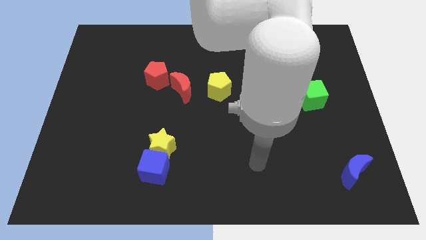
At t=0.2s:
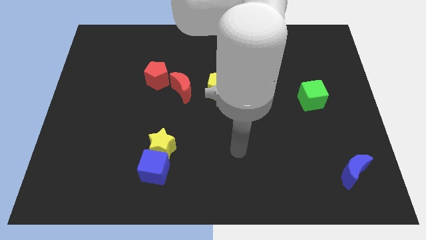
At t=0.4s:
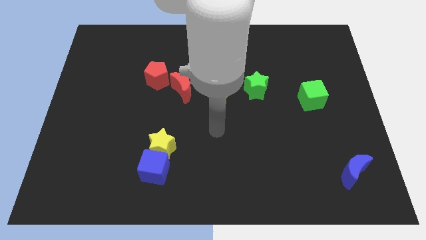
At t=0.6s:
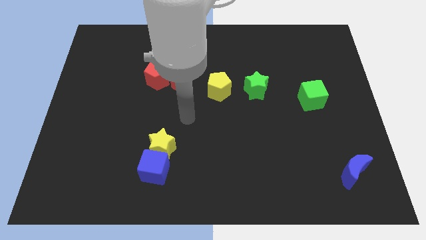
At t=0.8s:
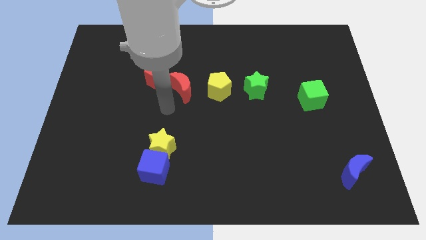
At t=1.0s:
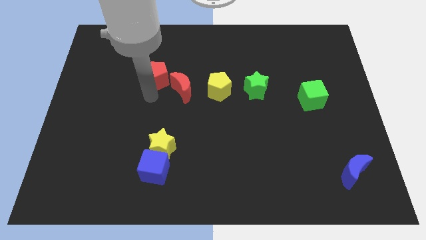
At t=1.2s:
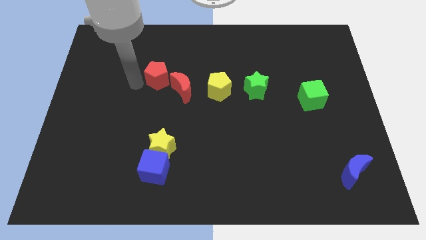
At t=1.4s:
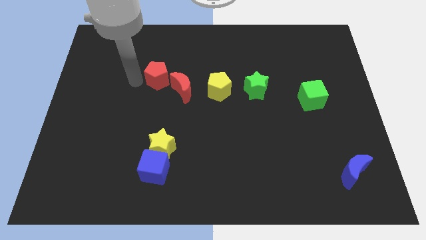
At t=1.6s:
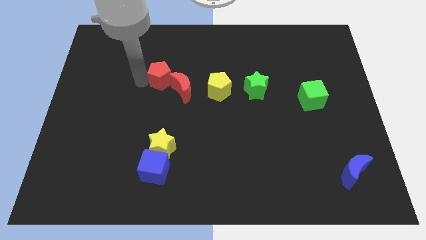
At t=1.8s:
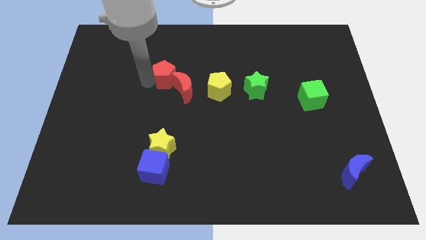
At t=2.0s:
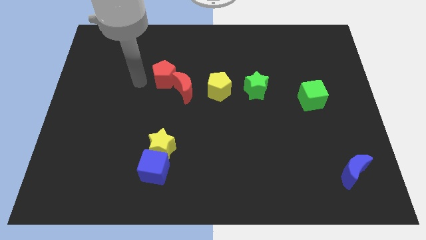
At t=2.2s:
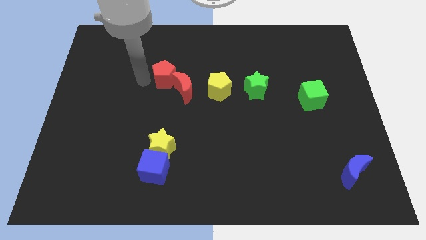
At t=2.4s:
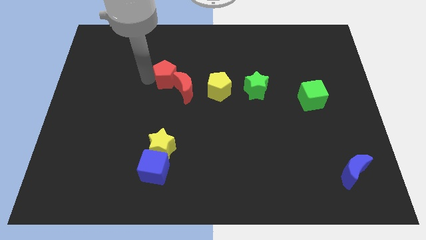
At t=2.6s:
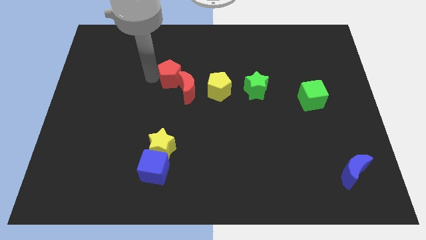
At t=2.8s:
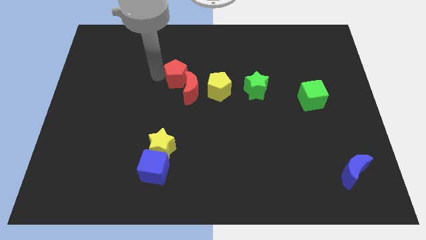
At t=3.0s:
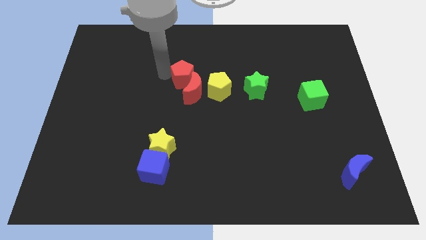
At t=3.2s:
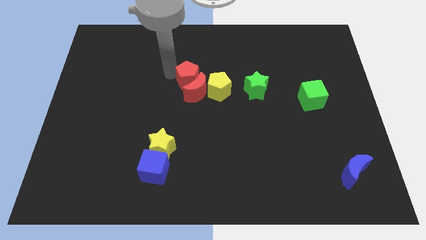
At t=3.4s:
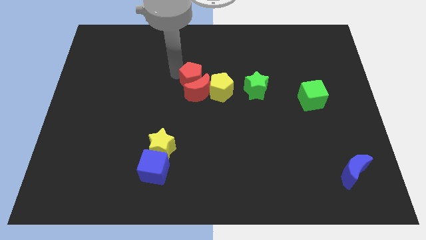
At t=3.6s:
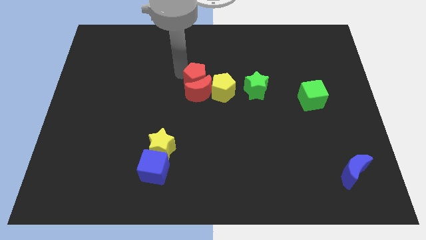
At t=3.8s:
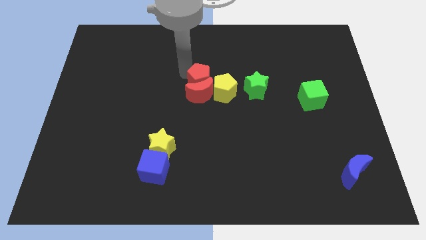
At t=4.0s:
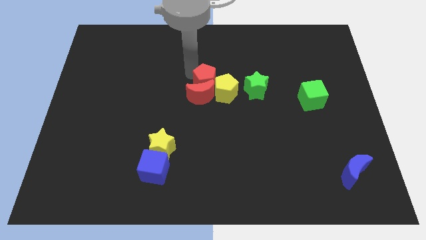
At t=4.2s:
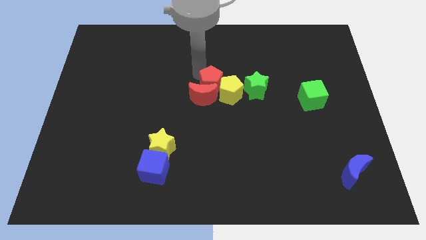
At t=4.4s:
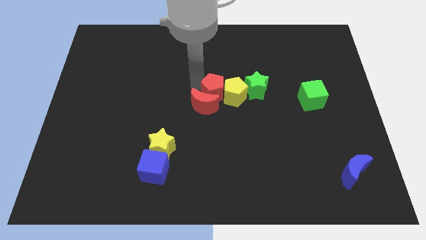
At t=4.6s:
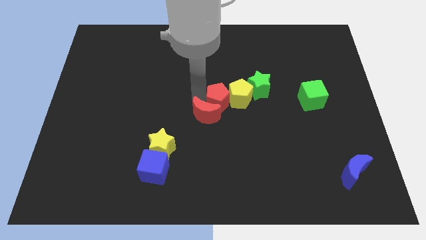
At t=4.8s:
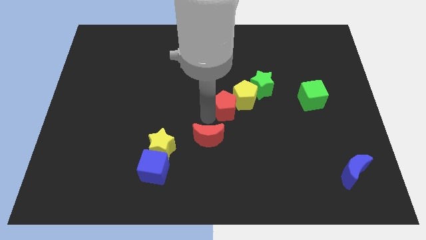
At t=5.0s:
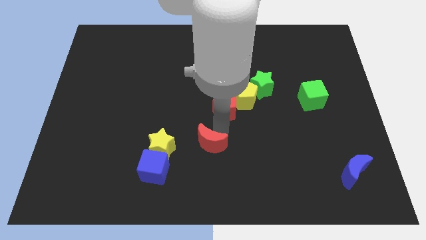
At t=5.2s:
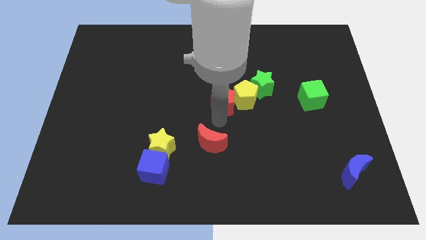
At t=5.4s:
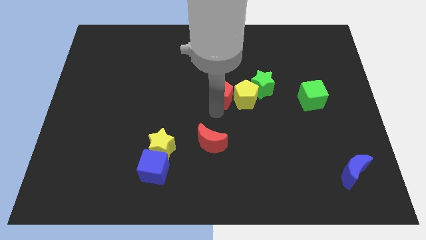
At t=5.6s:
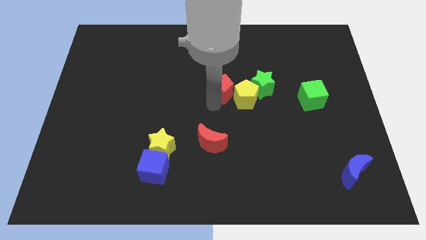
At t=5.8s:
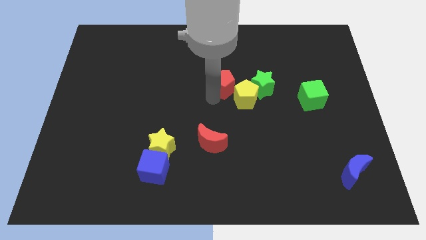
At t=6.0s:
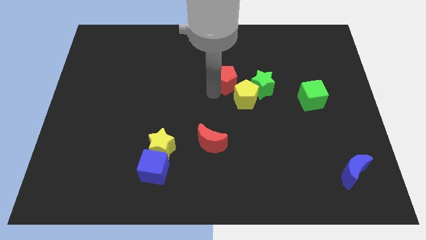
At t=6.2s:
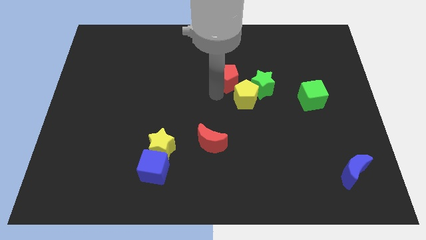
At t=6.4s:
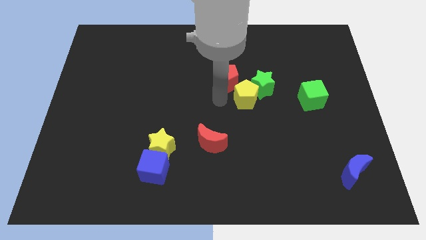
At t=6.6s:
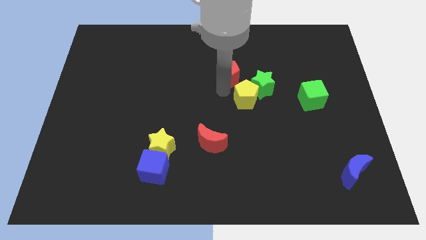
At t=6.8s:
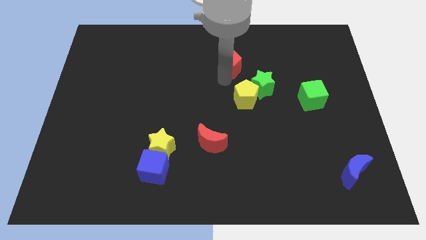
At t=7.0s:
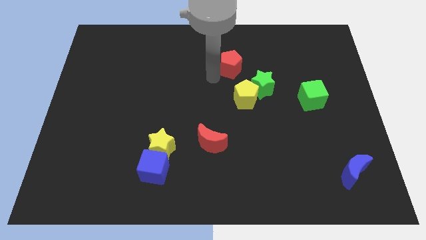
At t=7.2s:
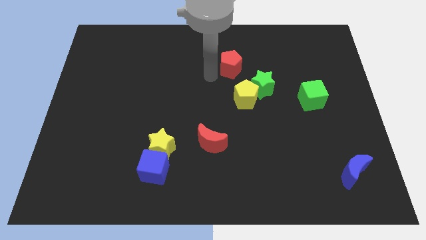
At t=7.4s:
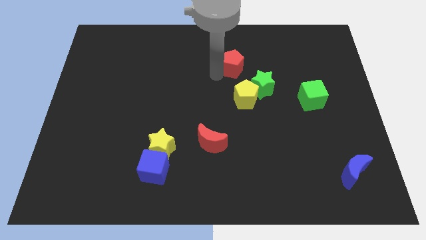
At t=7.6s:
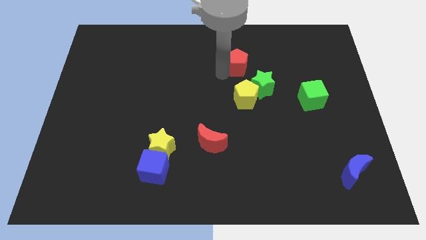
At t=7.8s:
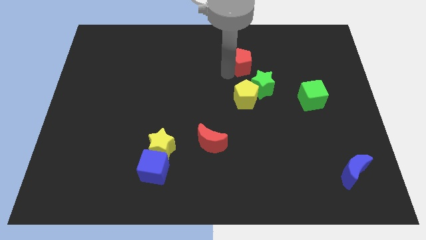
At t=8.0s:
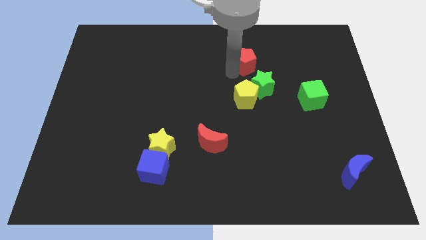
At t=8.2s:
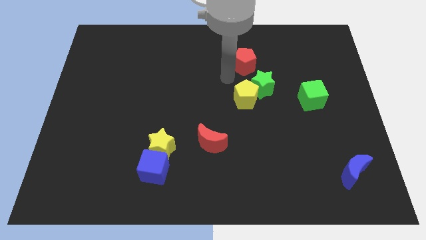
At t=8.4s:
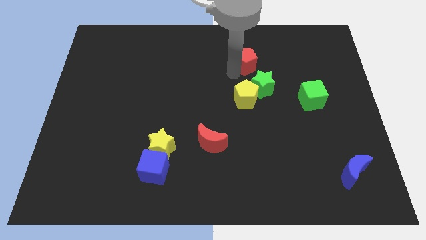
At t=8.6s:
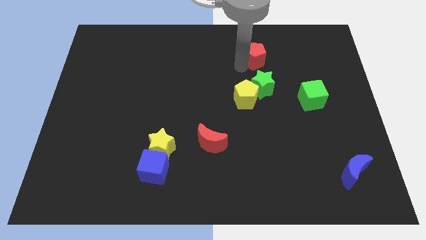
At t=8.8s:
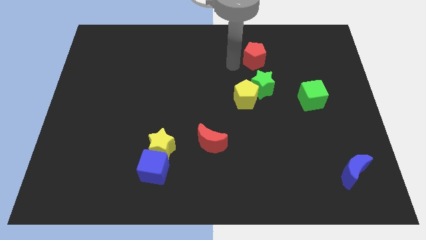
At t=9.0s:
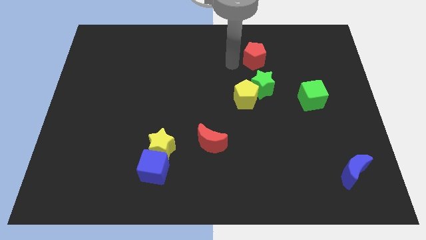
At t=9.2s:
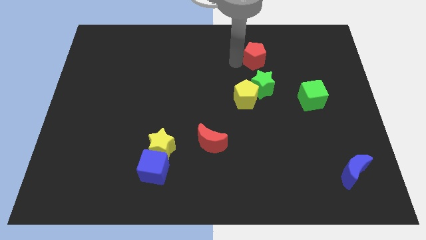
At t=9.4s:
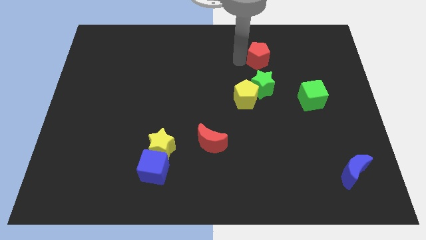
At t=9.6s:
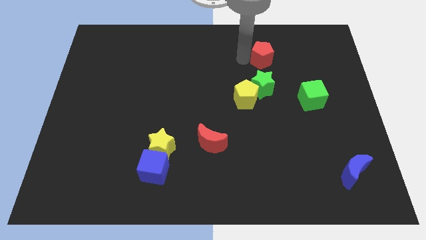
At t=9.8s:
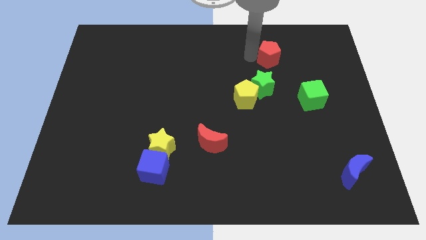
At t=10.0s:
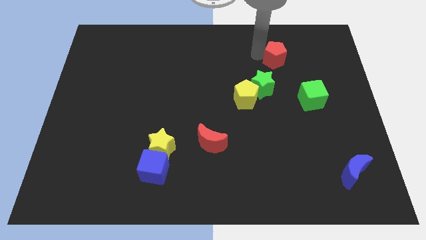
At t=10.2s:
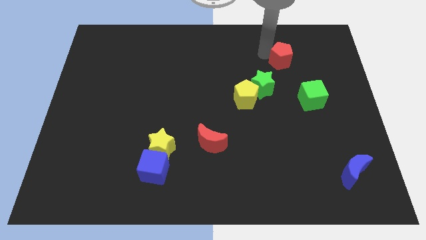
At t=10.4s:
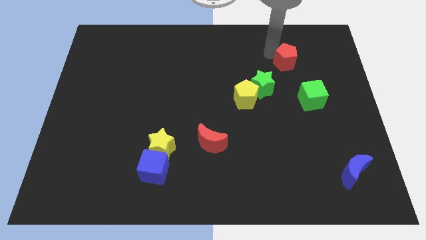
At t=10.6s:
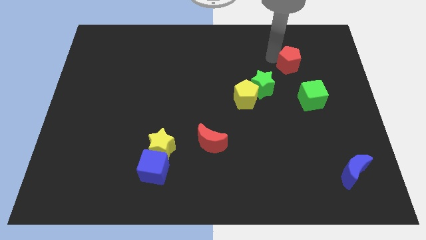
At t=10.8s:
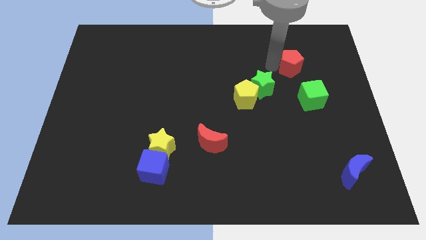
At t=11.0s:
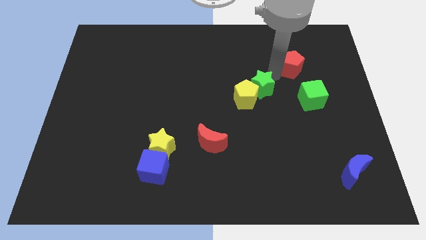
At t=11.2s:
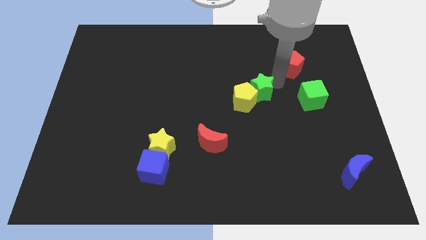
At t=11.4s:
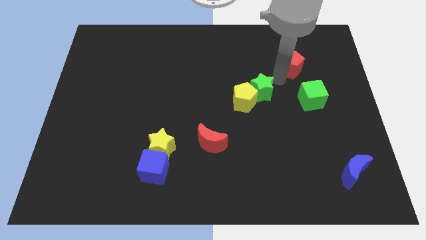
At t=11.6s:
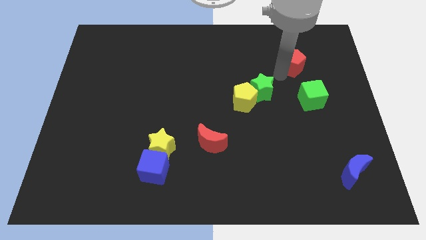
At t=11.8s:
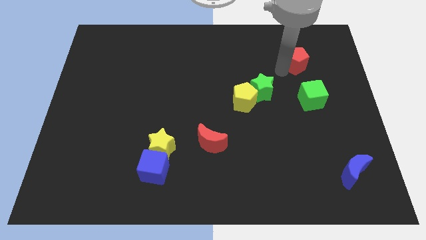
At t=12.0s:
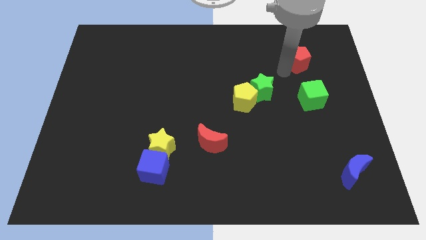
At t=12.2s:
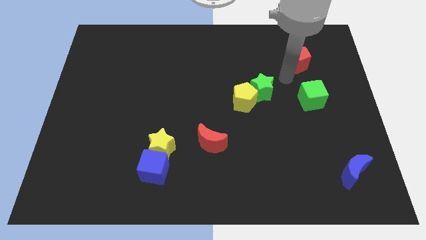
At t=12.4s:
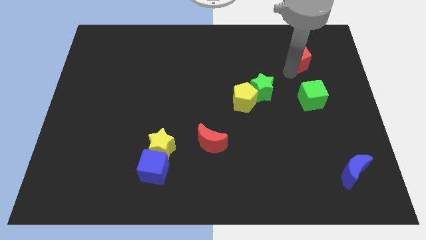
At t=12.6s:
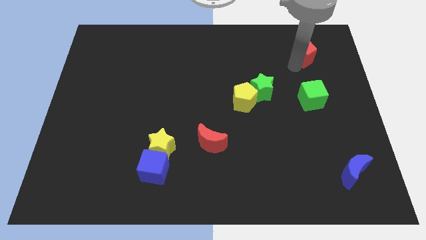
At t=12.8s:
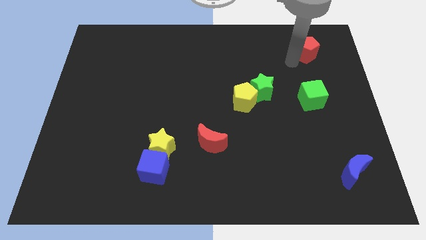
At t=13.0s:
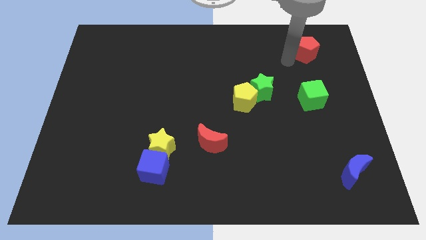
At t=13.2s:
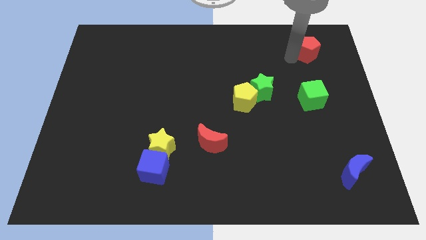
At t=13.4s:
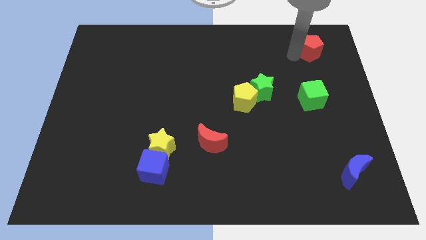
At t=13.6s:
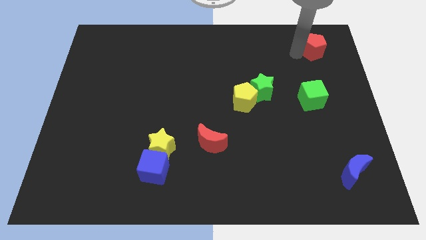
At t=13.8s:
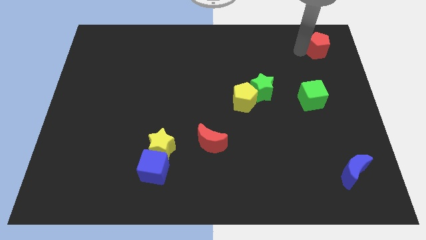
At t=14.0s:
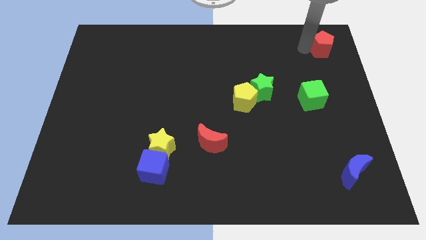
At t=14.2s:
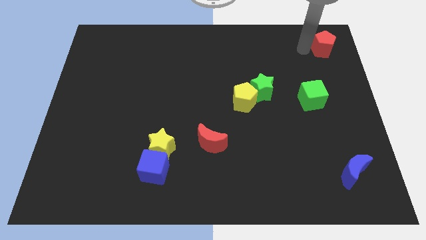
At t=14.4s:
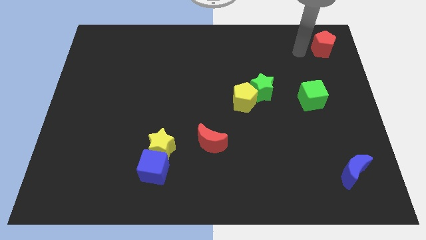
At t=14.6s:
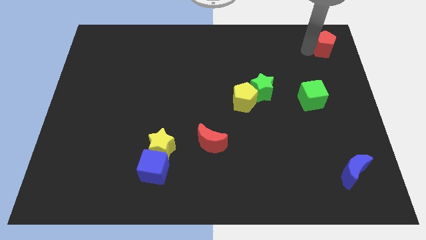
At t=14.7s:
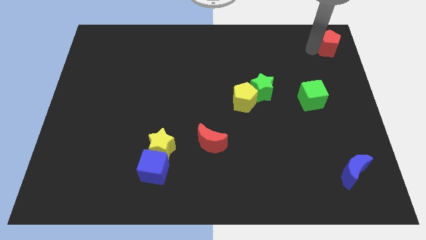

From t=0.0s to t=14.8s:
move the red pentagon to the top right of the board
